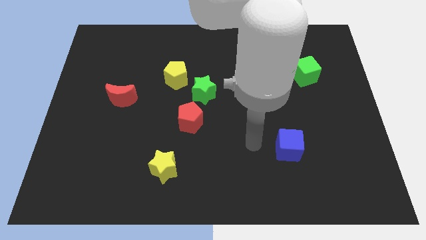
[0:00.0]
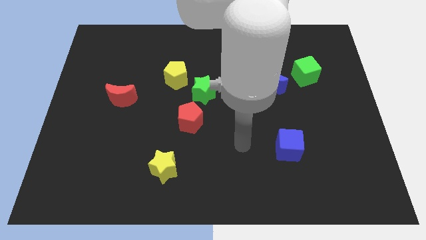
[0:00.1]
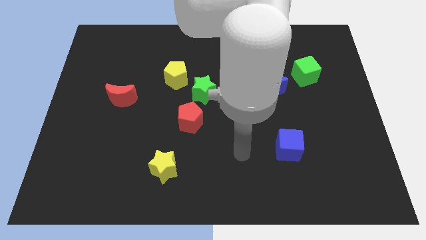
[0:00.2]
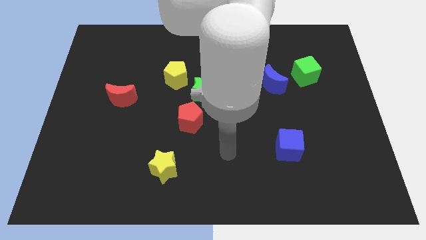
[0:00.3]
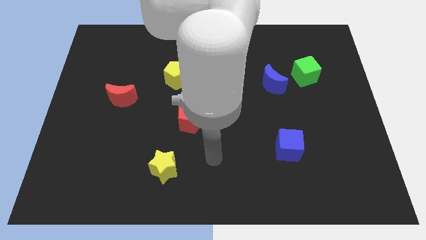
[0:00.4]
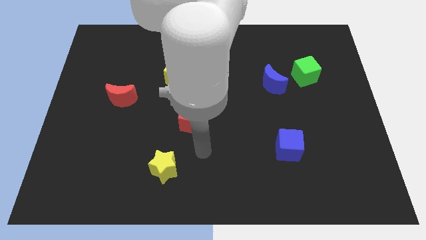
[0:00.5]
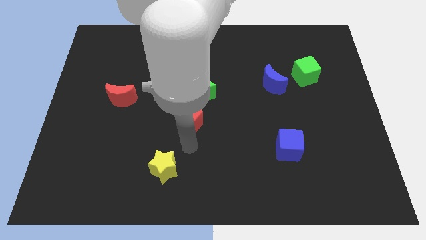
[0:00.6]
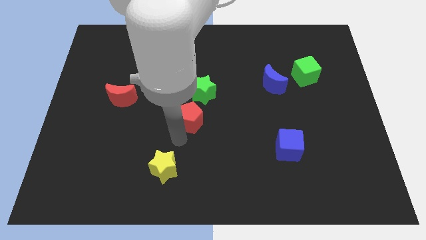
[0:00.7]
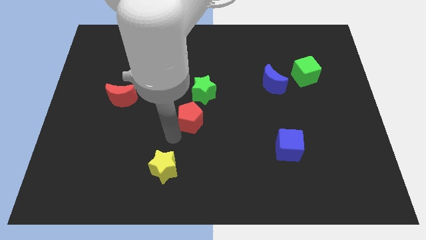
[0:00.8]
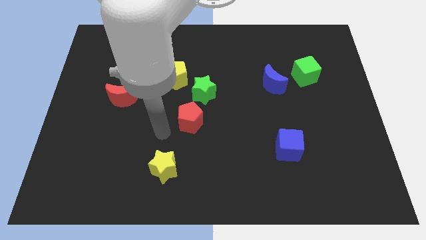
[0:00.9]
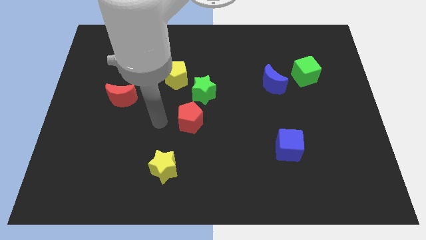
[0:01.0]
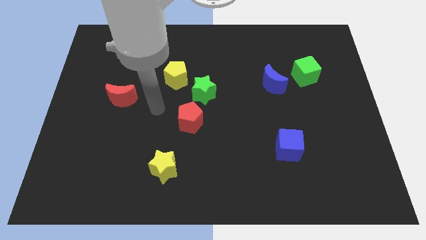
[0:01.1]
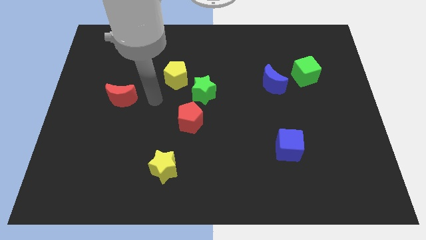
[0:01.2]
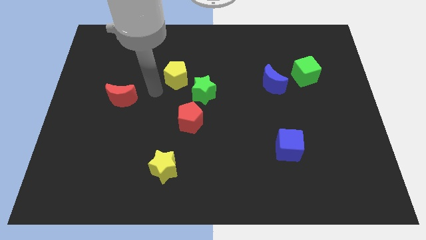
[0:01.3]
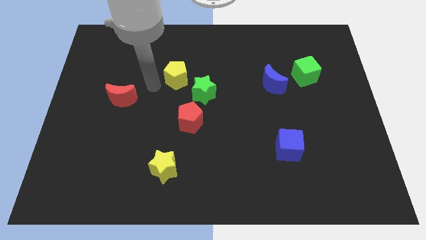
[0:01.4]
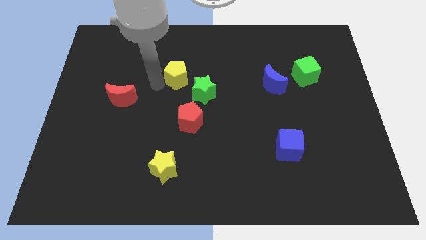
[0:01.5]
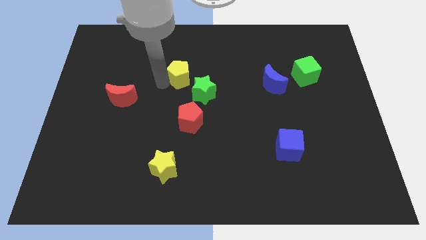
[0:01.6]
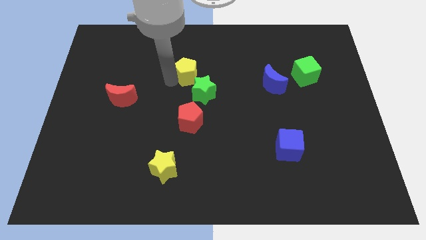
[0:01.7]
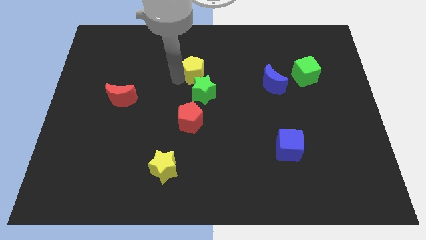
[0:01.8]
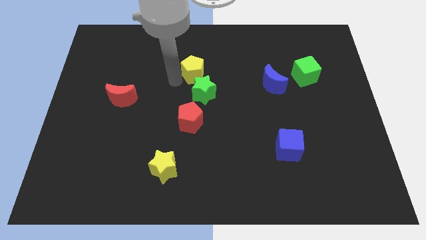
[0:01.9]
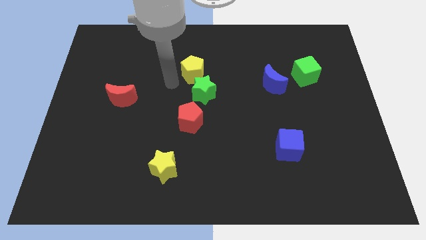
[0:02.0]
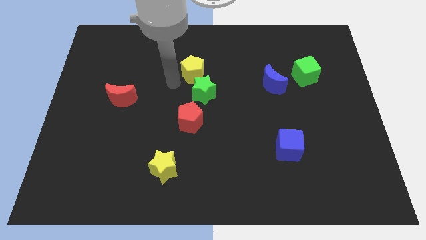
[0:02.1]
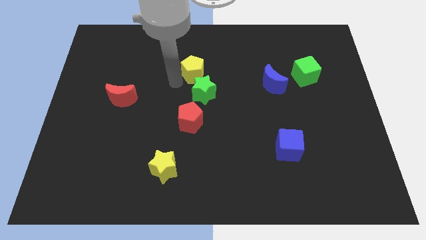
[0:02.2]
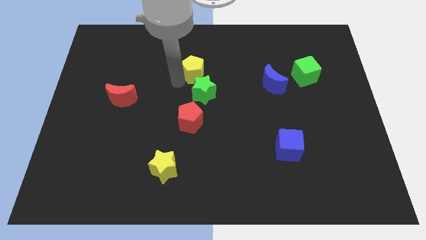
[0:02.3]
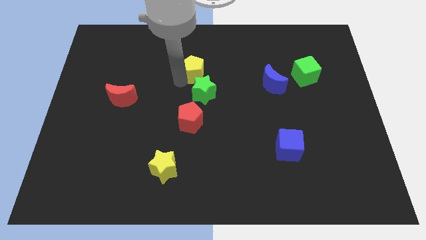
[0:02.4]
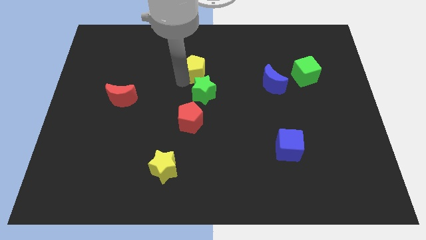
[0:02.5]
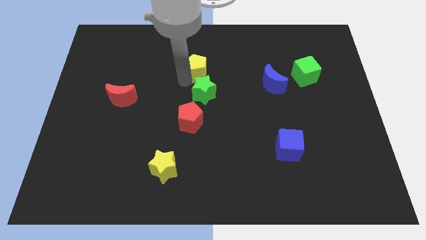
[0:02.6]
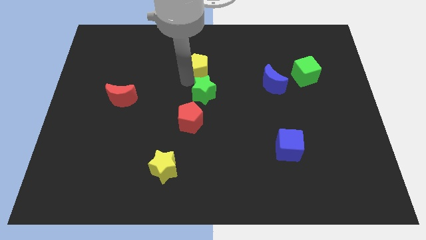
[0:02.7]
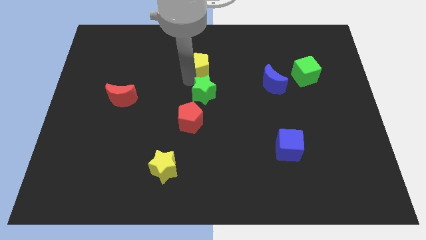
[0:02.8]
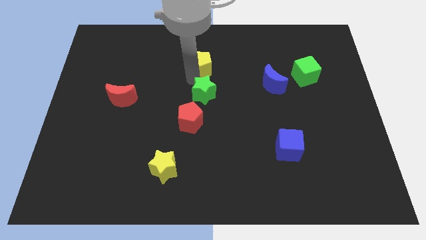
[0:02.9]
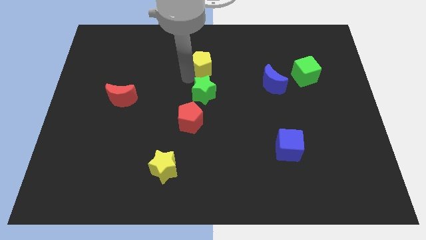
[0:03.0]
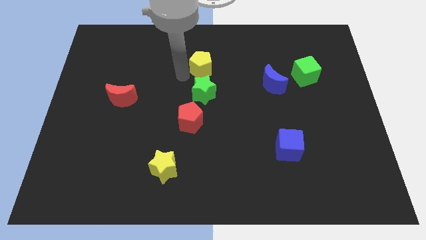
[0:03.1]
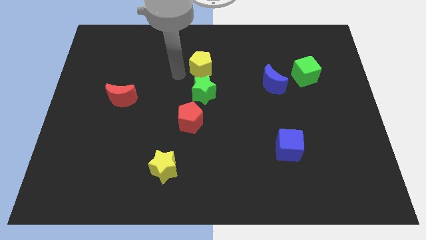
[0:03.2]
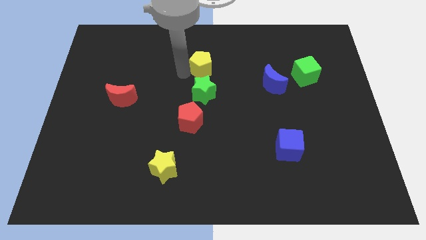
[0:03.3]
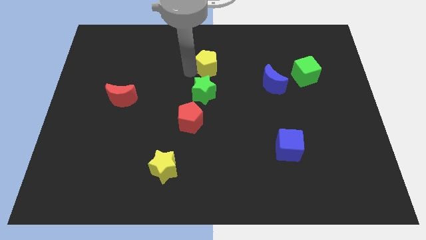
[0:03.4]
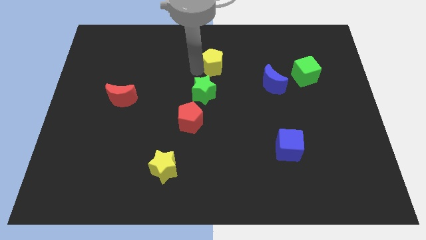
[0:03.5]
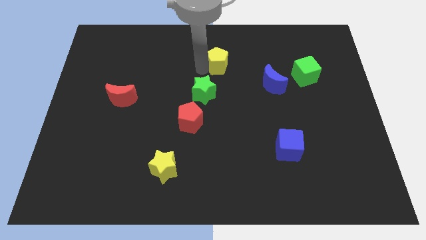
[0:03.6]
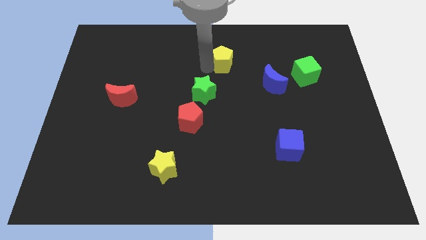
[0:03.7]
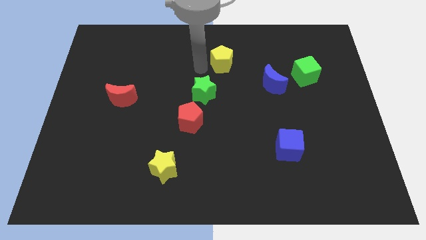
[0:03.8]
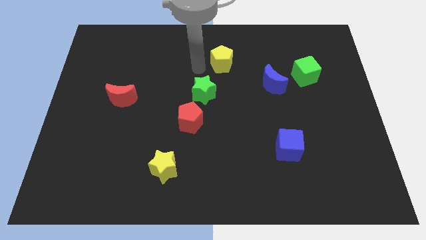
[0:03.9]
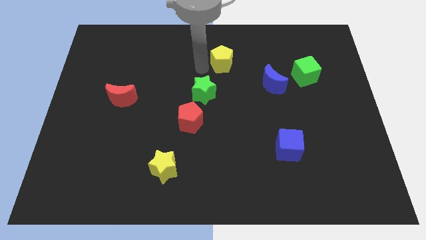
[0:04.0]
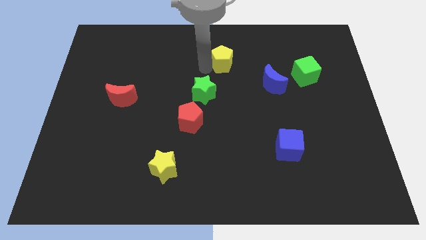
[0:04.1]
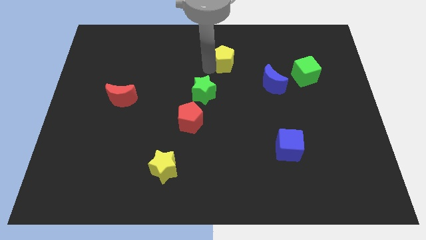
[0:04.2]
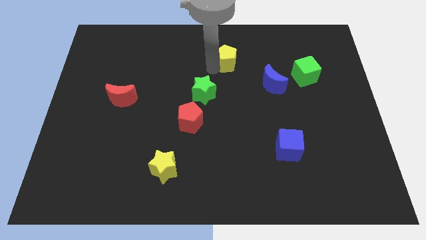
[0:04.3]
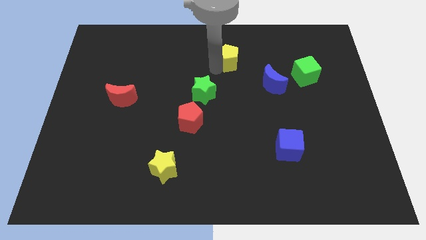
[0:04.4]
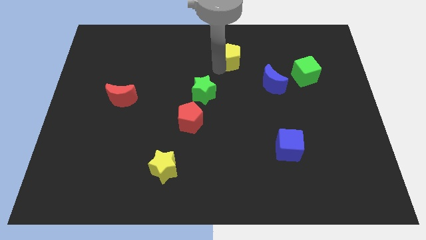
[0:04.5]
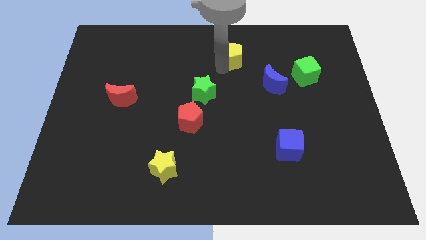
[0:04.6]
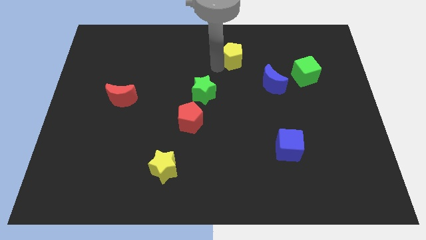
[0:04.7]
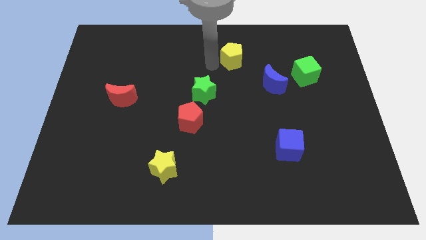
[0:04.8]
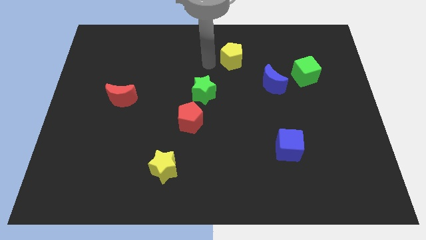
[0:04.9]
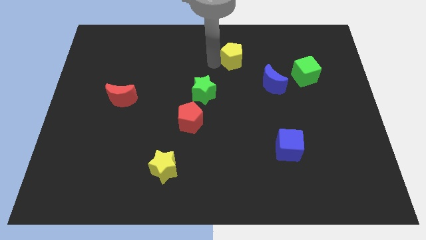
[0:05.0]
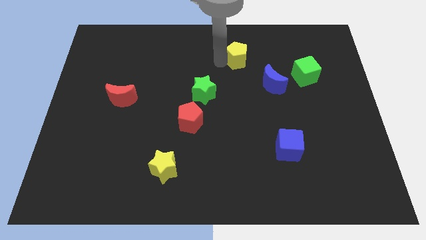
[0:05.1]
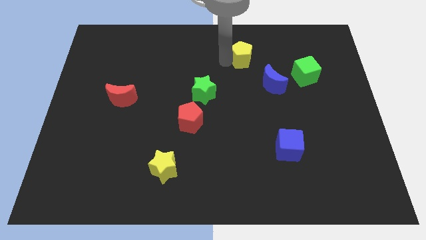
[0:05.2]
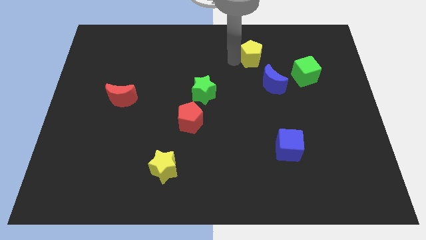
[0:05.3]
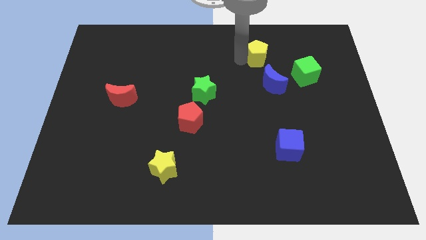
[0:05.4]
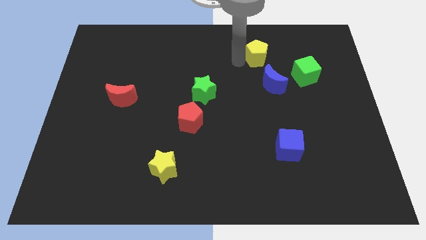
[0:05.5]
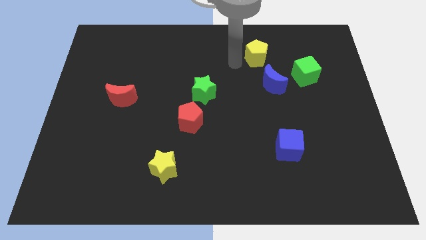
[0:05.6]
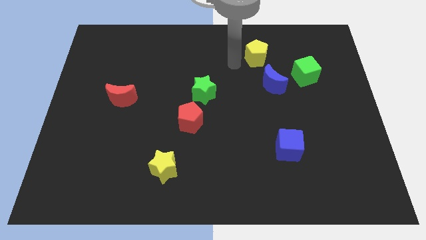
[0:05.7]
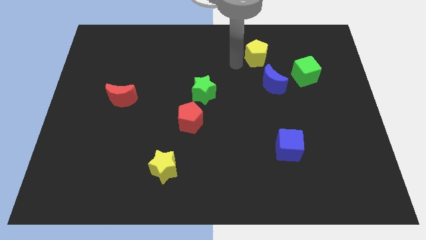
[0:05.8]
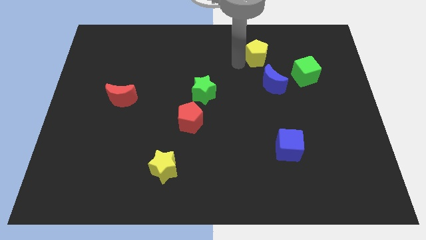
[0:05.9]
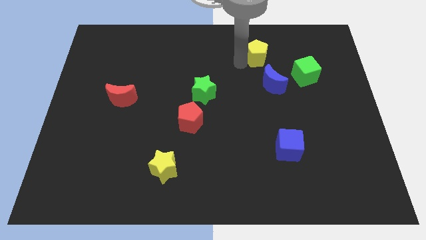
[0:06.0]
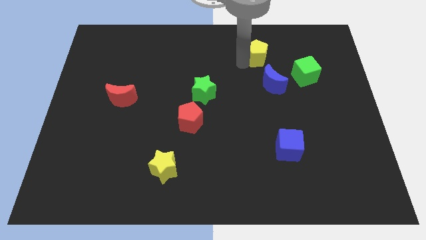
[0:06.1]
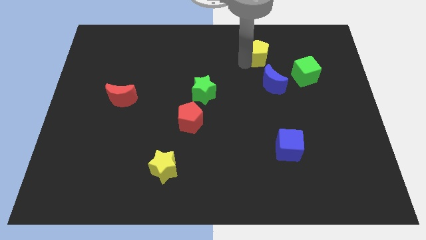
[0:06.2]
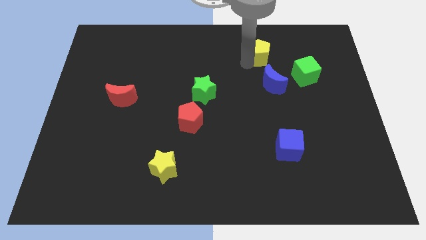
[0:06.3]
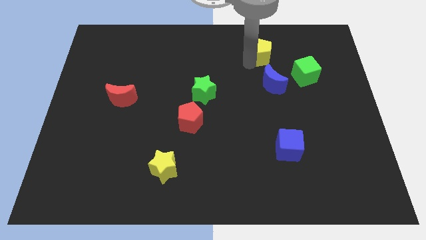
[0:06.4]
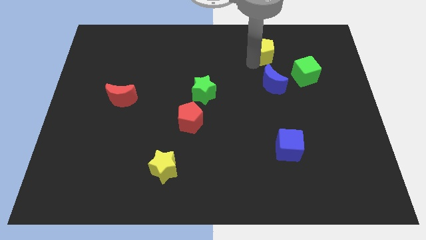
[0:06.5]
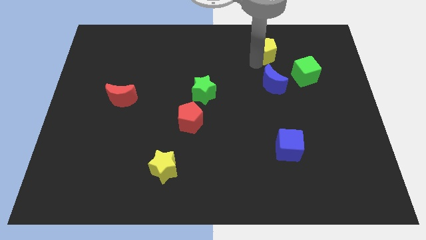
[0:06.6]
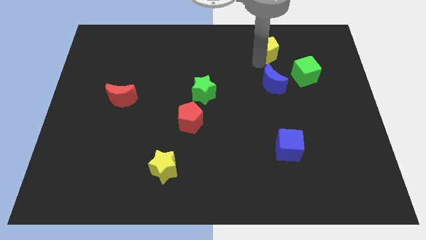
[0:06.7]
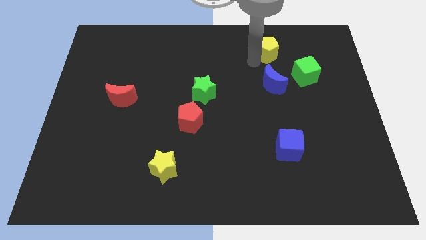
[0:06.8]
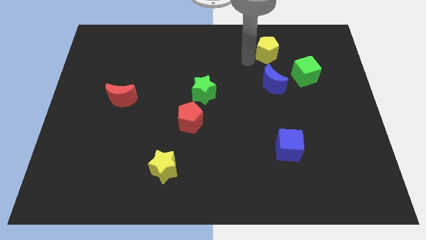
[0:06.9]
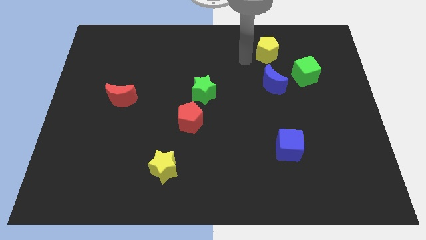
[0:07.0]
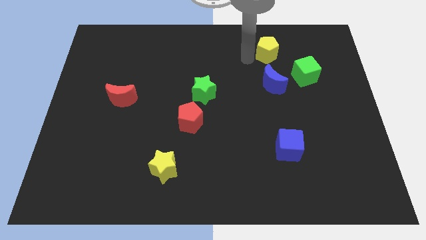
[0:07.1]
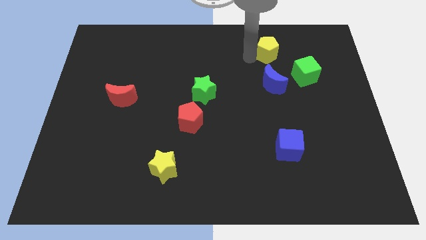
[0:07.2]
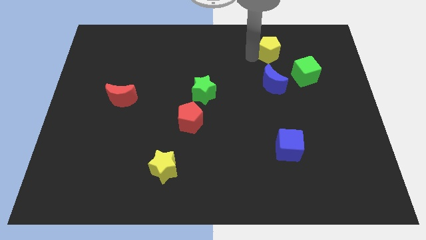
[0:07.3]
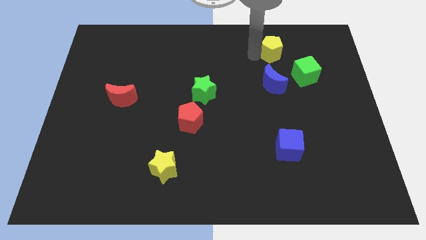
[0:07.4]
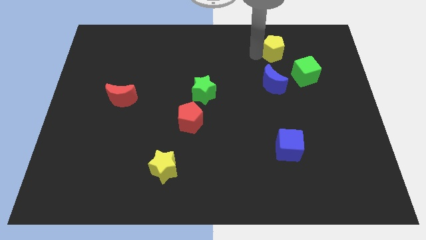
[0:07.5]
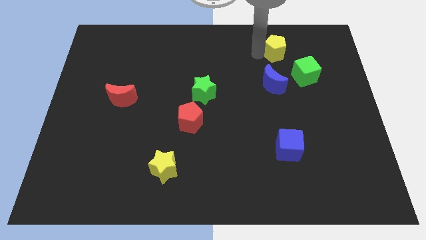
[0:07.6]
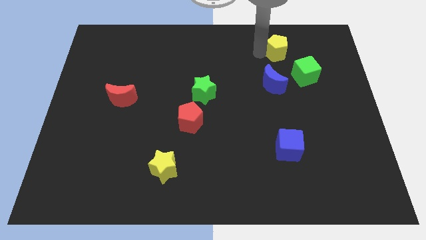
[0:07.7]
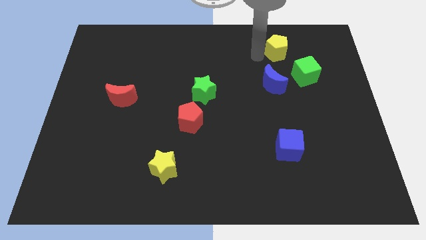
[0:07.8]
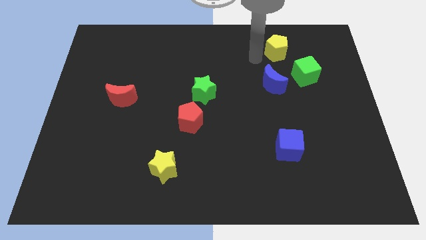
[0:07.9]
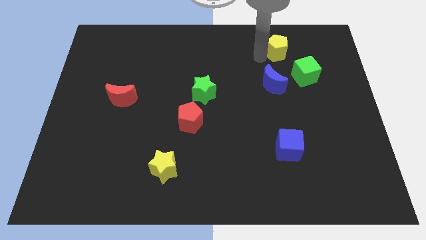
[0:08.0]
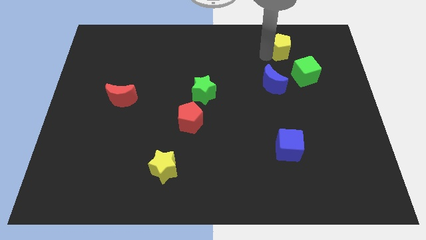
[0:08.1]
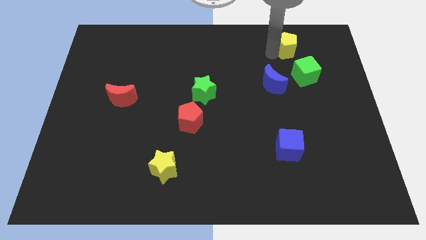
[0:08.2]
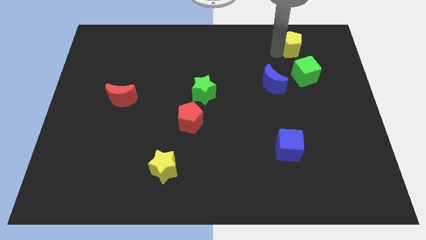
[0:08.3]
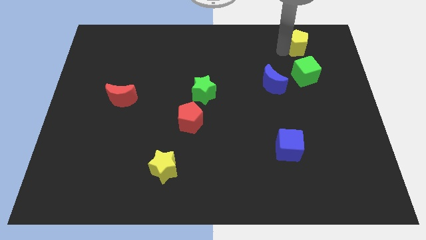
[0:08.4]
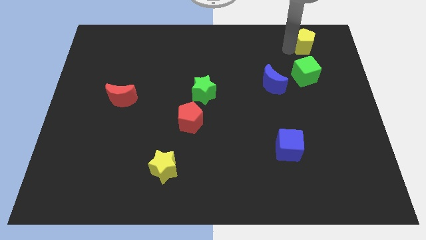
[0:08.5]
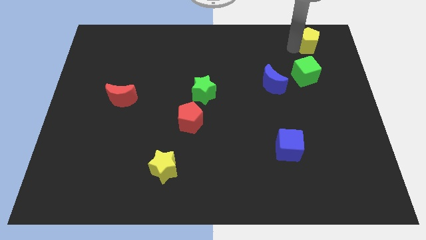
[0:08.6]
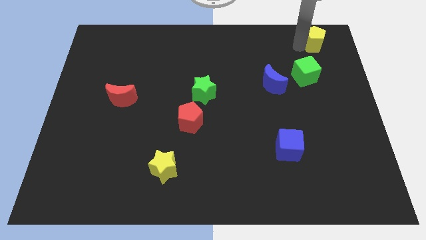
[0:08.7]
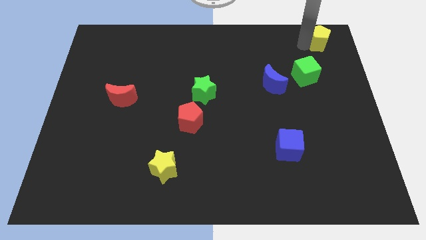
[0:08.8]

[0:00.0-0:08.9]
move the yellow pentagon to the top right corner
